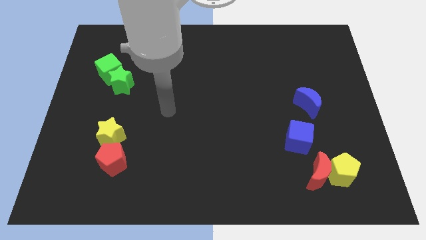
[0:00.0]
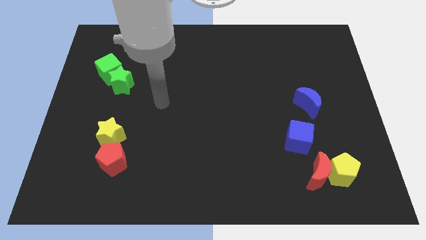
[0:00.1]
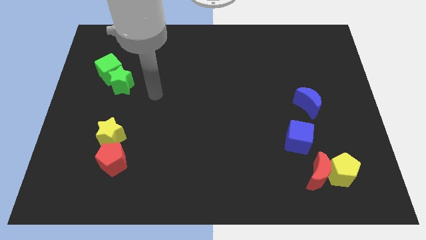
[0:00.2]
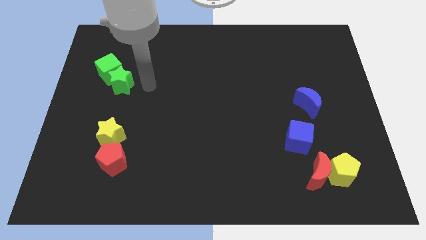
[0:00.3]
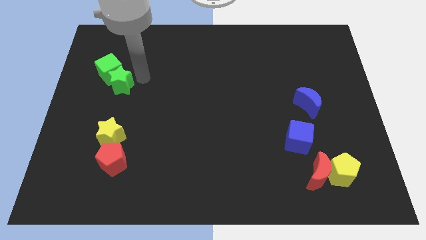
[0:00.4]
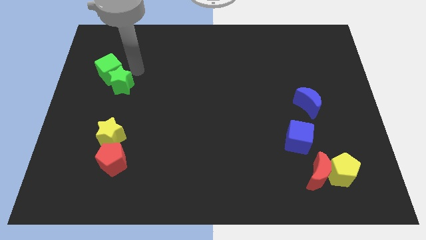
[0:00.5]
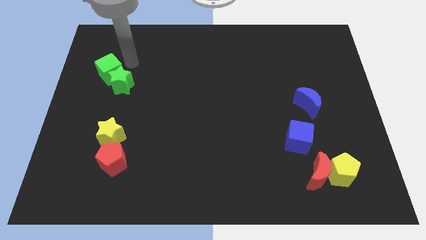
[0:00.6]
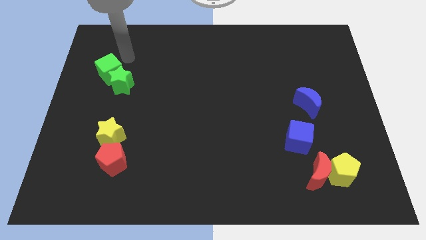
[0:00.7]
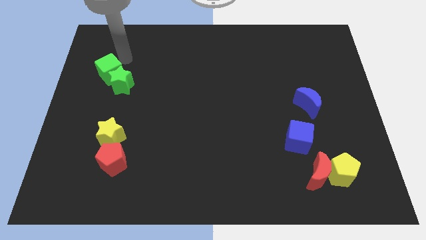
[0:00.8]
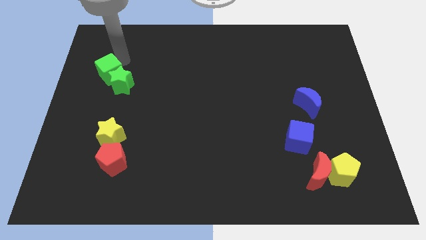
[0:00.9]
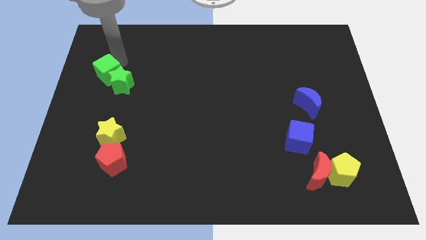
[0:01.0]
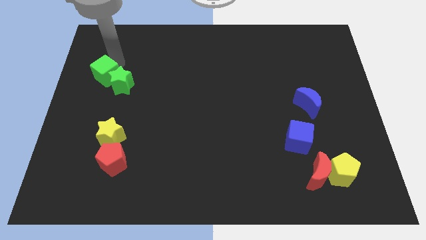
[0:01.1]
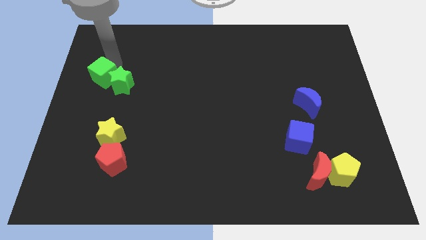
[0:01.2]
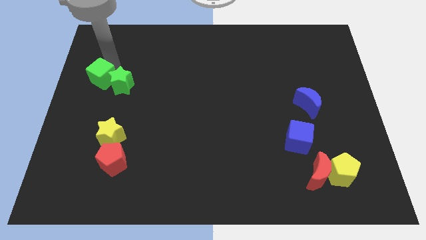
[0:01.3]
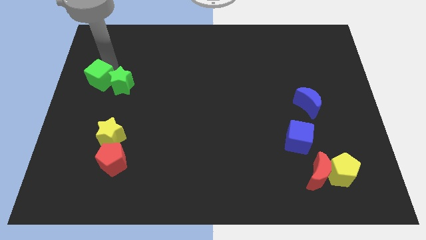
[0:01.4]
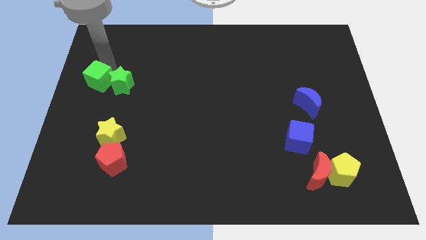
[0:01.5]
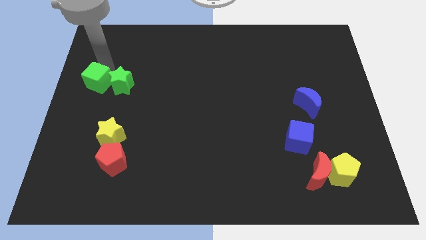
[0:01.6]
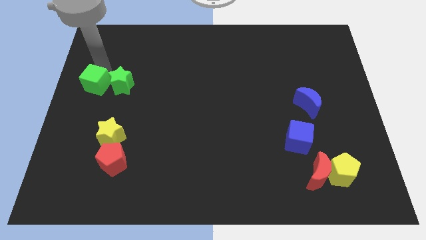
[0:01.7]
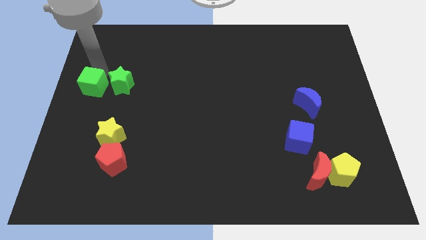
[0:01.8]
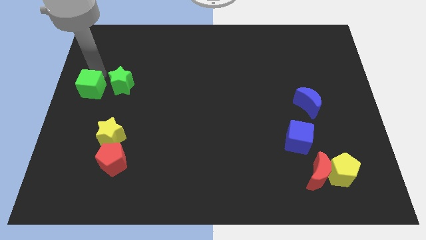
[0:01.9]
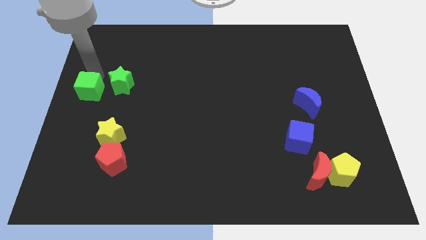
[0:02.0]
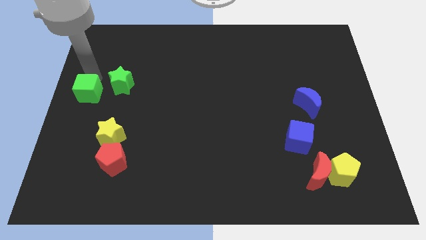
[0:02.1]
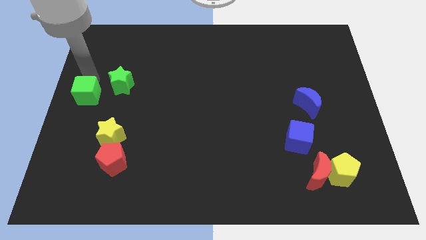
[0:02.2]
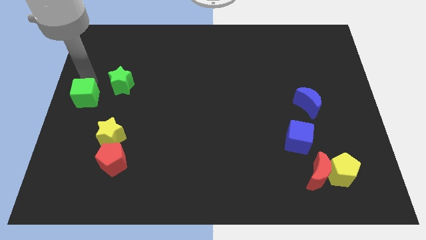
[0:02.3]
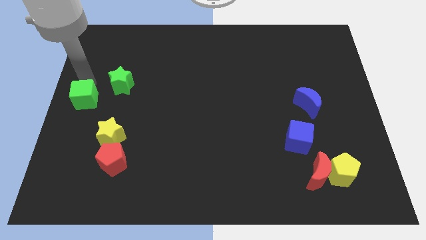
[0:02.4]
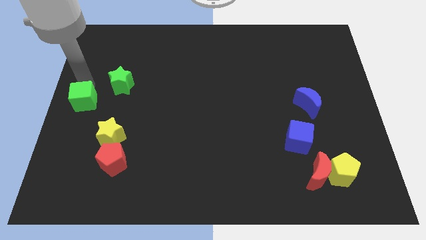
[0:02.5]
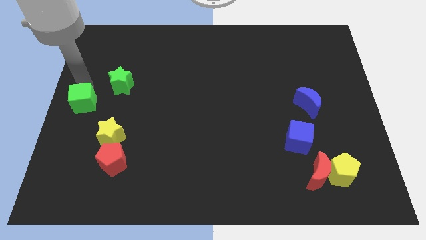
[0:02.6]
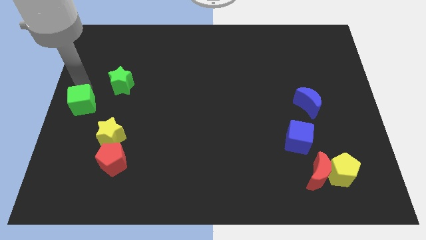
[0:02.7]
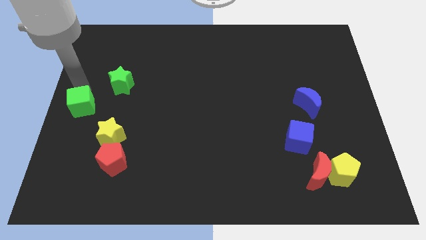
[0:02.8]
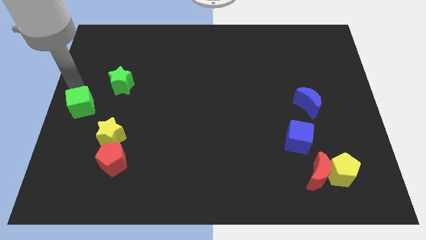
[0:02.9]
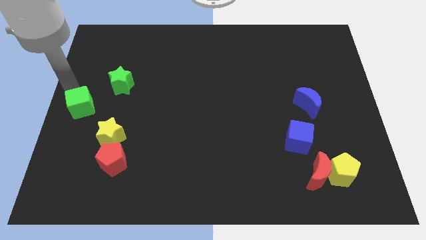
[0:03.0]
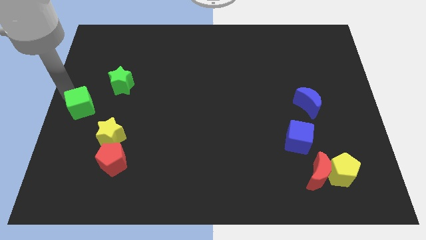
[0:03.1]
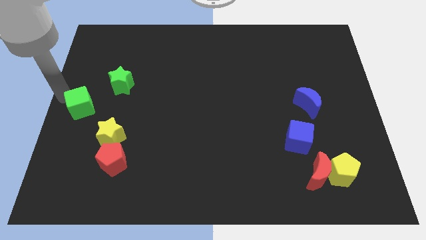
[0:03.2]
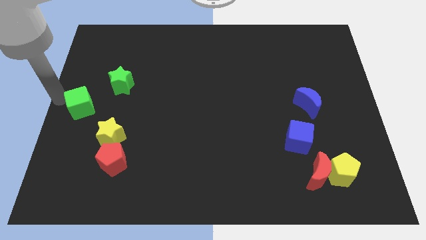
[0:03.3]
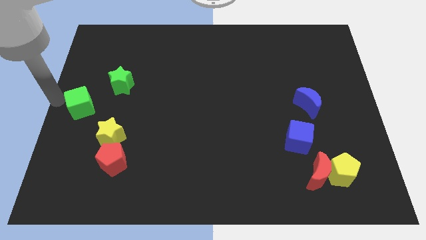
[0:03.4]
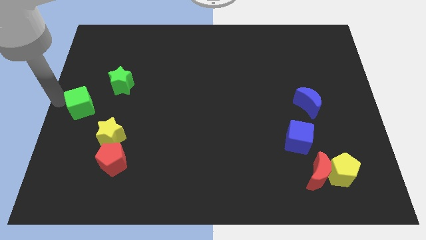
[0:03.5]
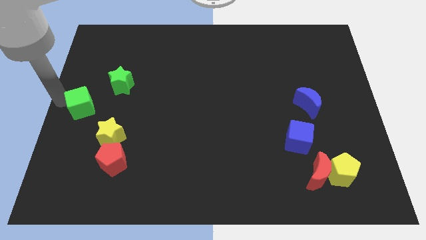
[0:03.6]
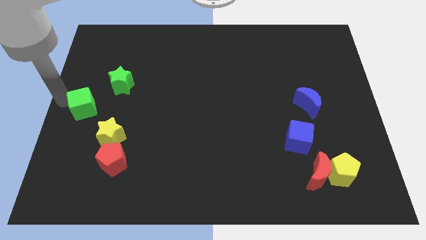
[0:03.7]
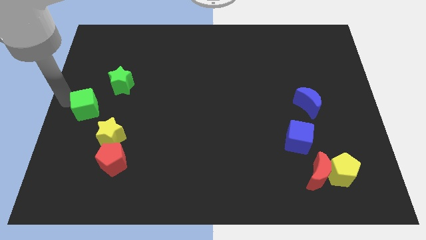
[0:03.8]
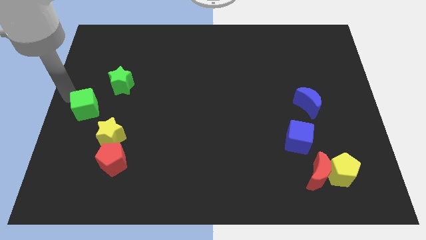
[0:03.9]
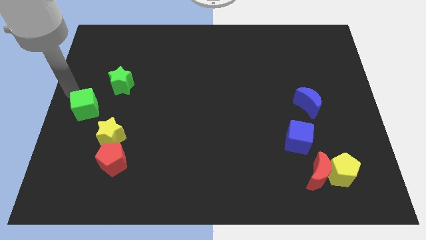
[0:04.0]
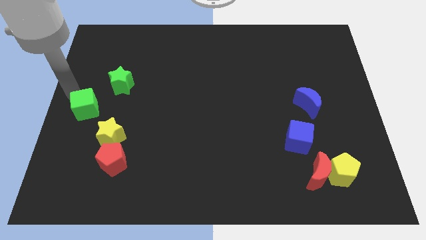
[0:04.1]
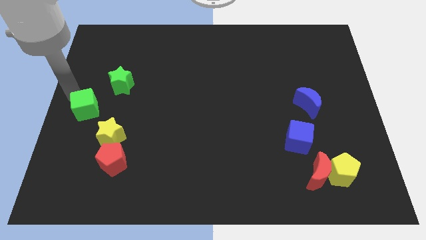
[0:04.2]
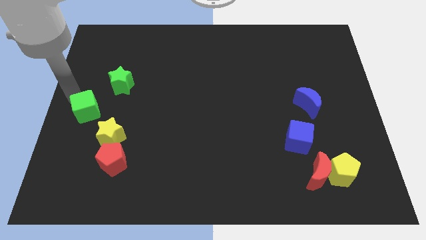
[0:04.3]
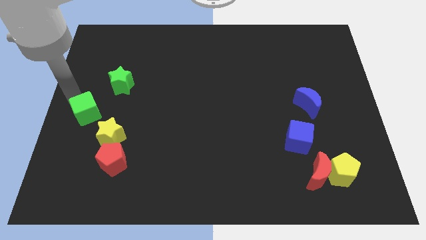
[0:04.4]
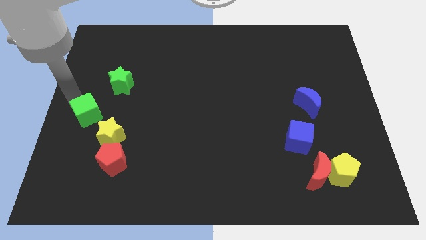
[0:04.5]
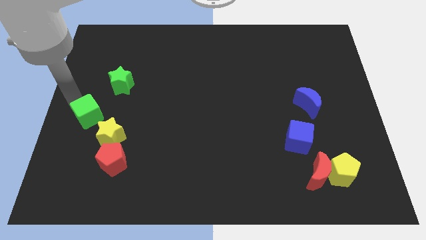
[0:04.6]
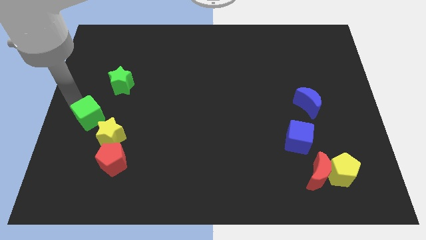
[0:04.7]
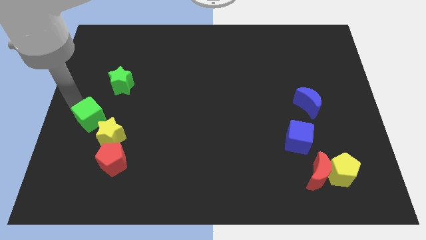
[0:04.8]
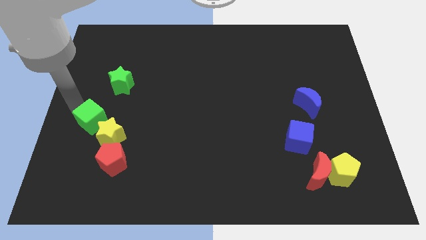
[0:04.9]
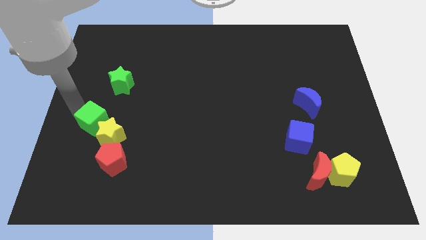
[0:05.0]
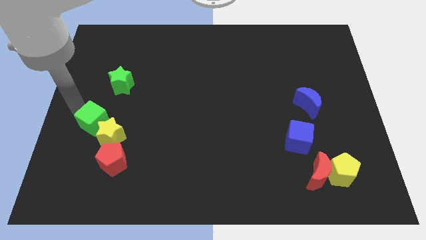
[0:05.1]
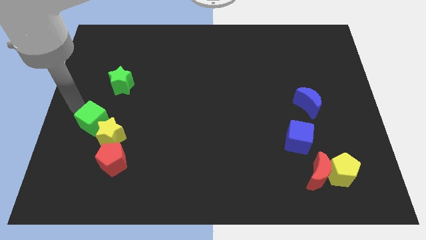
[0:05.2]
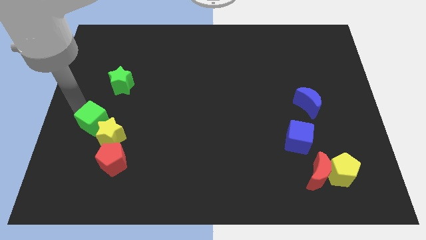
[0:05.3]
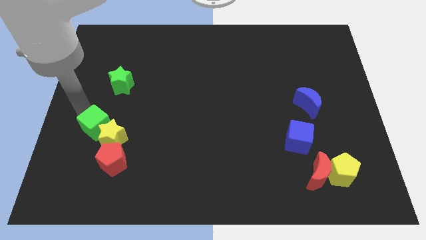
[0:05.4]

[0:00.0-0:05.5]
put the green cube close to the yellow star

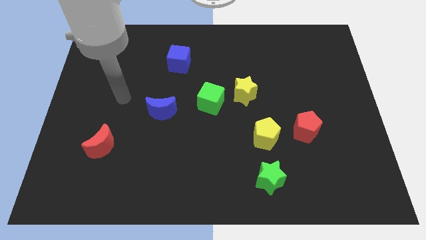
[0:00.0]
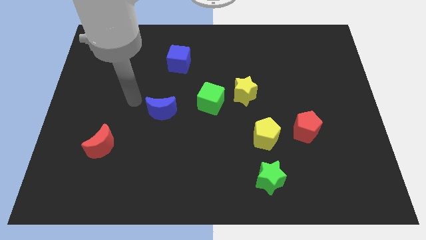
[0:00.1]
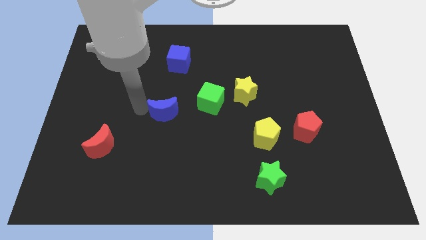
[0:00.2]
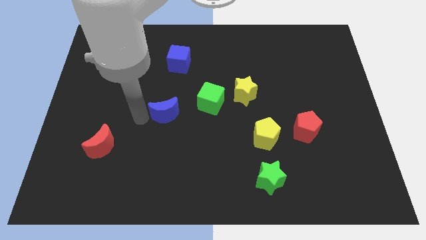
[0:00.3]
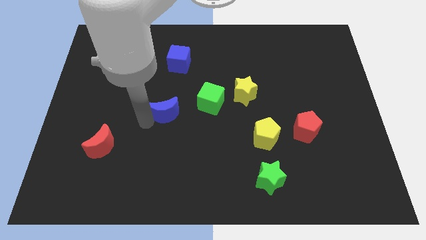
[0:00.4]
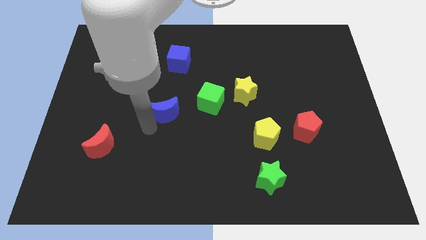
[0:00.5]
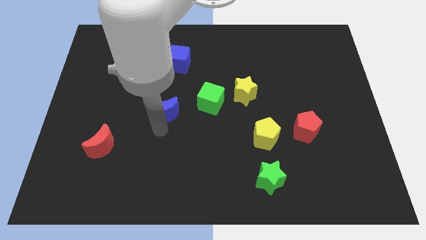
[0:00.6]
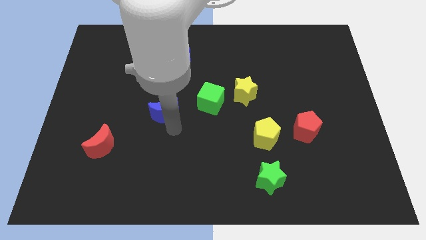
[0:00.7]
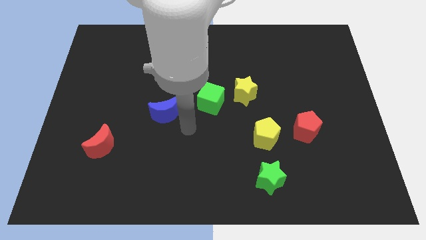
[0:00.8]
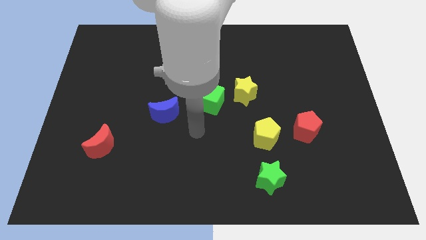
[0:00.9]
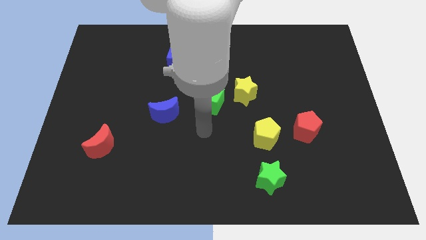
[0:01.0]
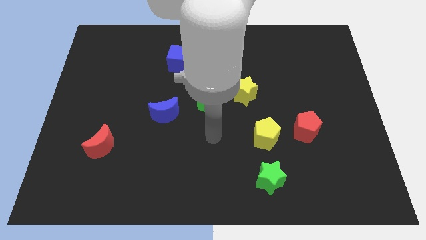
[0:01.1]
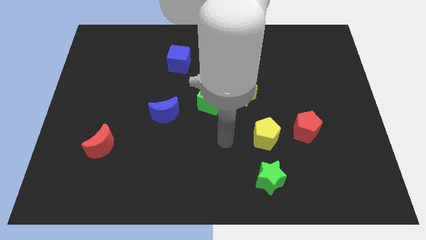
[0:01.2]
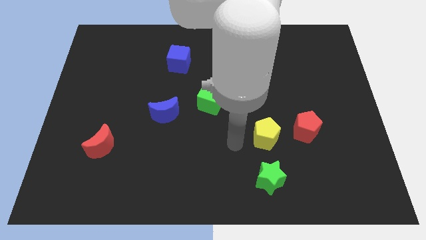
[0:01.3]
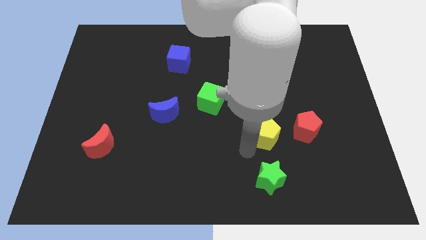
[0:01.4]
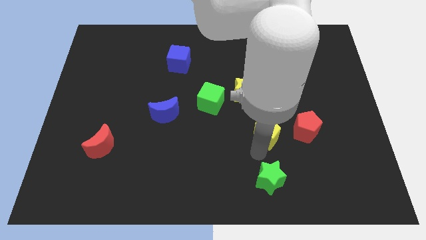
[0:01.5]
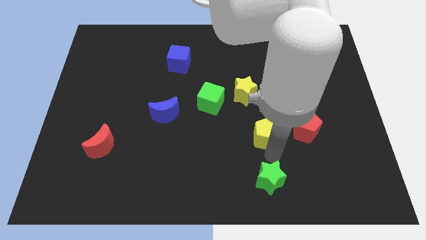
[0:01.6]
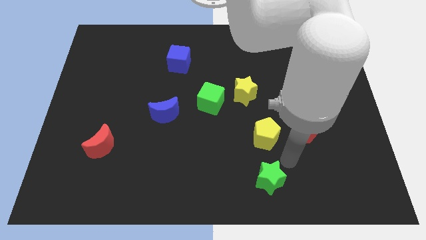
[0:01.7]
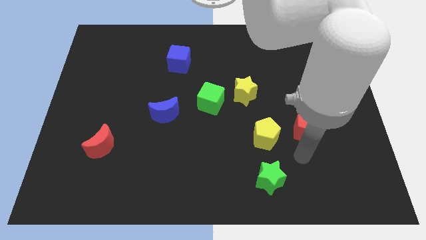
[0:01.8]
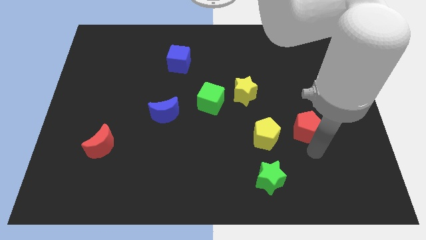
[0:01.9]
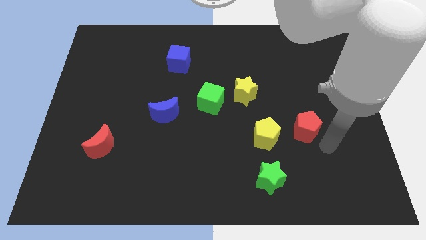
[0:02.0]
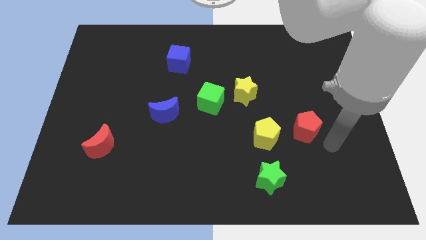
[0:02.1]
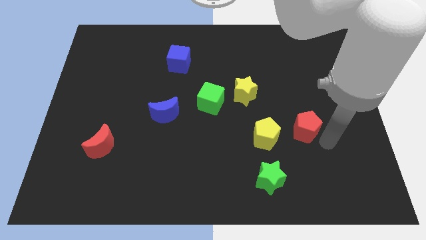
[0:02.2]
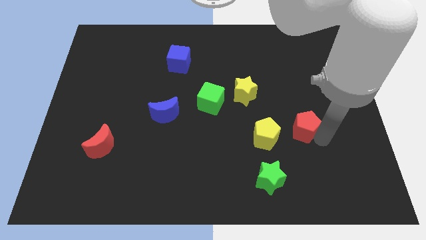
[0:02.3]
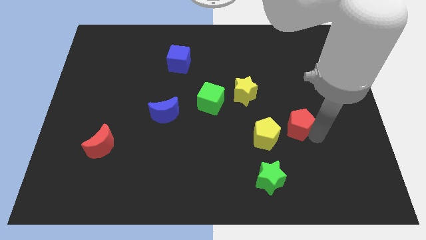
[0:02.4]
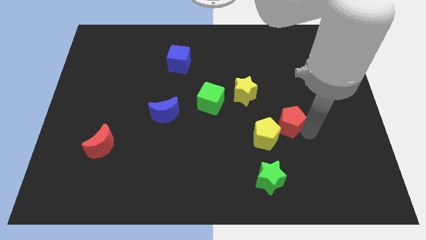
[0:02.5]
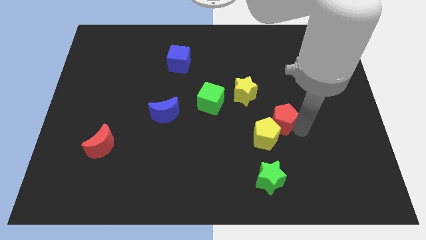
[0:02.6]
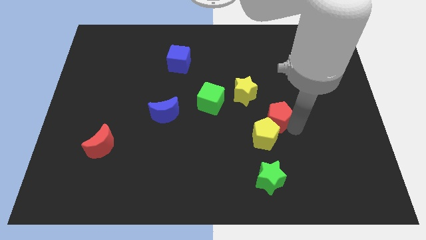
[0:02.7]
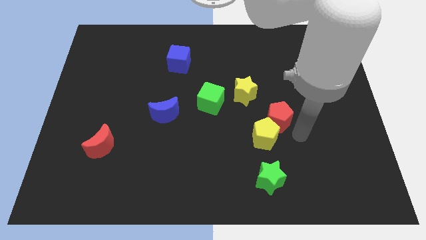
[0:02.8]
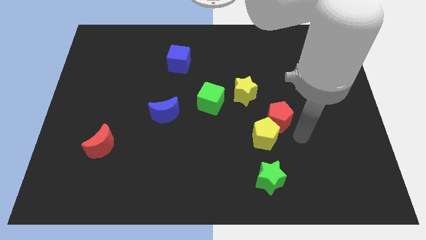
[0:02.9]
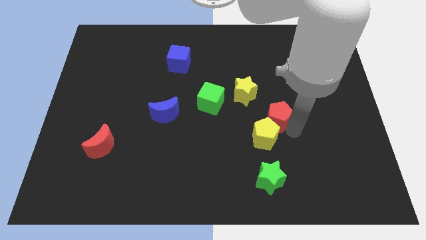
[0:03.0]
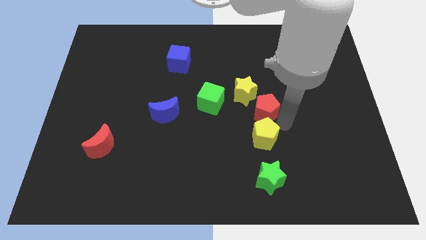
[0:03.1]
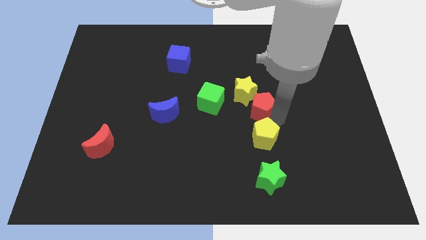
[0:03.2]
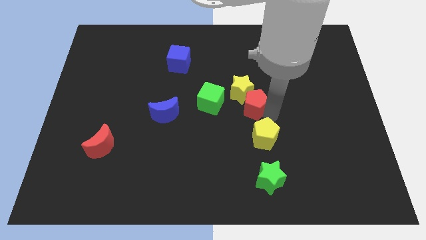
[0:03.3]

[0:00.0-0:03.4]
push the red pentagon next to the yellow star
